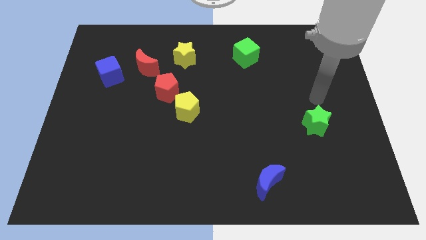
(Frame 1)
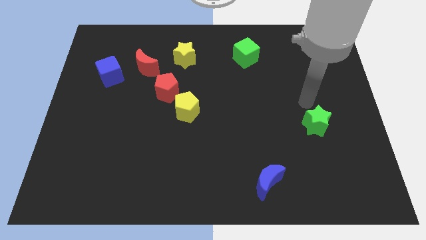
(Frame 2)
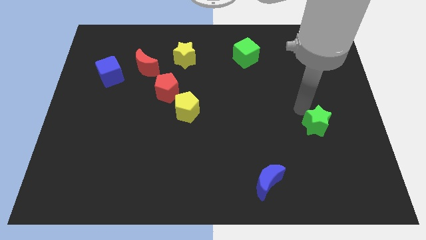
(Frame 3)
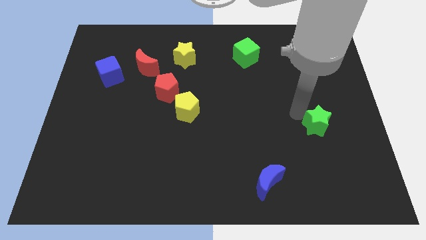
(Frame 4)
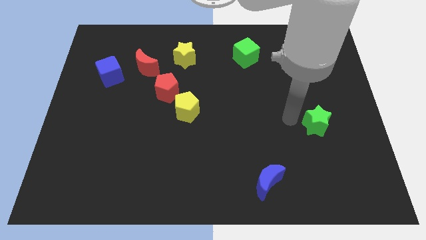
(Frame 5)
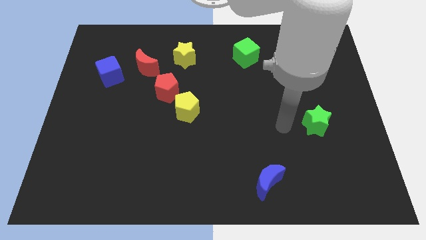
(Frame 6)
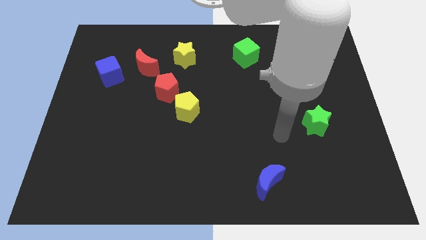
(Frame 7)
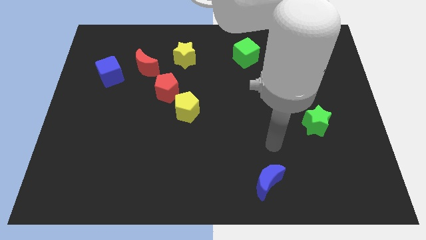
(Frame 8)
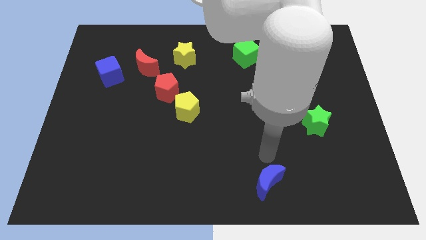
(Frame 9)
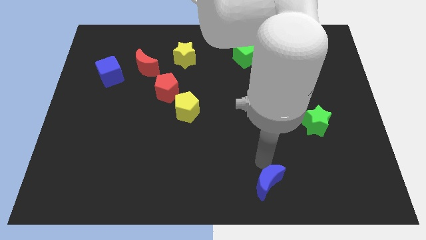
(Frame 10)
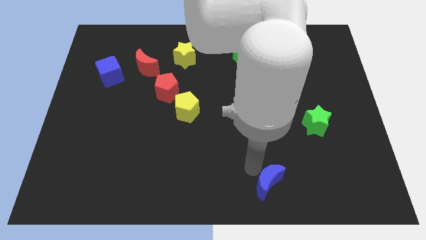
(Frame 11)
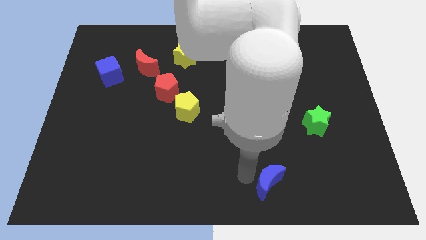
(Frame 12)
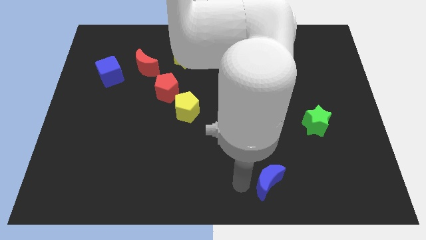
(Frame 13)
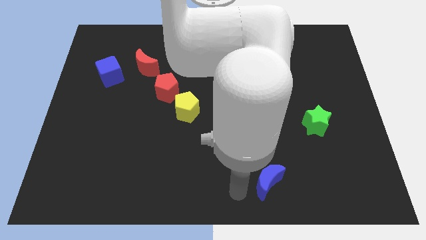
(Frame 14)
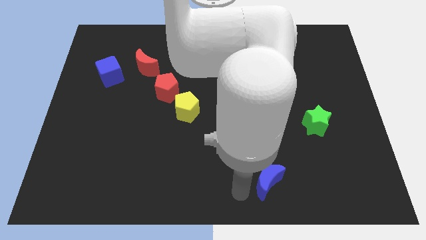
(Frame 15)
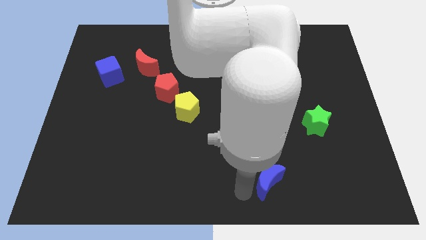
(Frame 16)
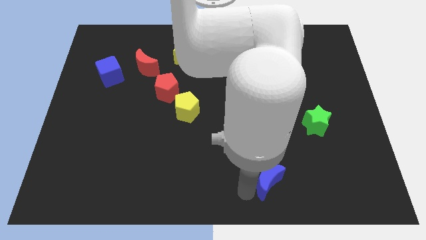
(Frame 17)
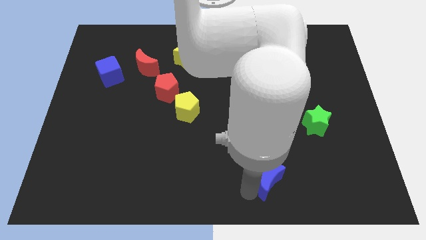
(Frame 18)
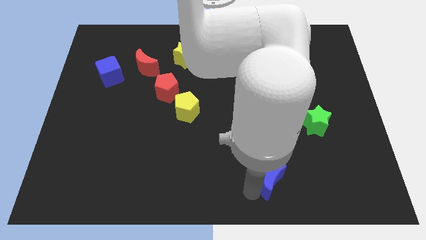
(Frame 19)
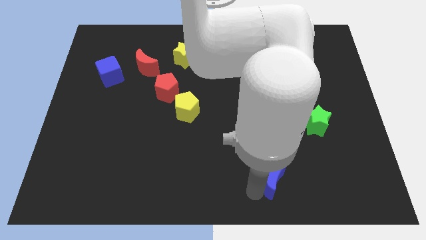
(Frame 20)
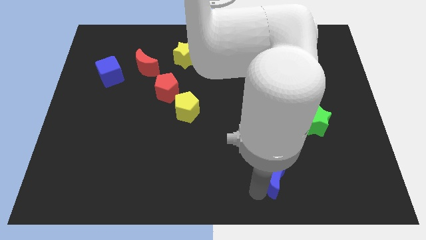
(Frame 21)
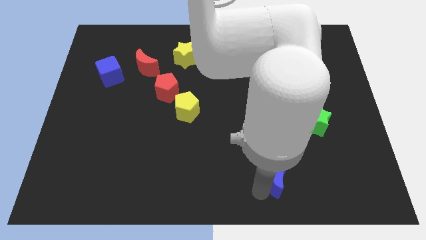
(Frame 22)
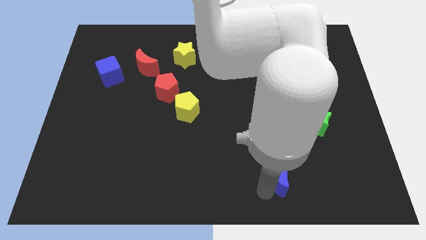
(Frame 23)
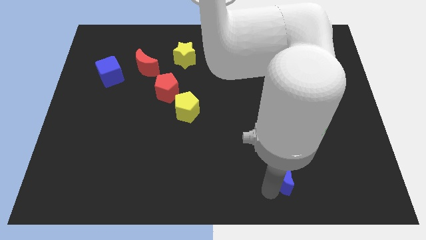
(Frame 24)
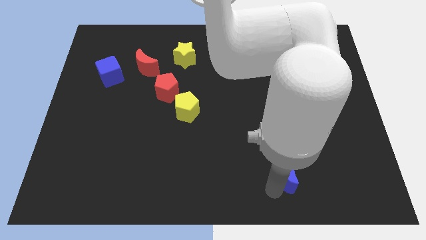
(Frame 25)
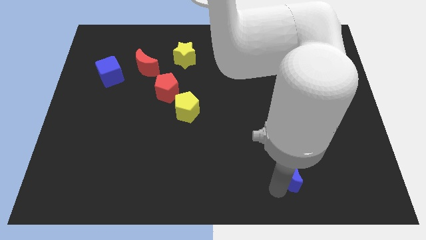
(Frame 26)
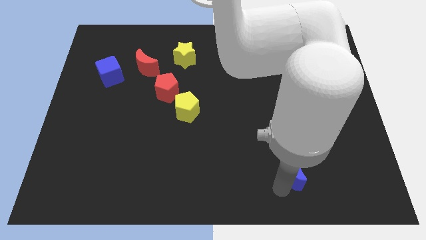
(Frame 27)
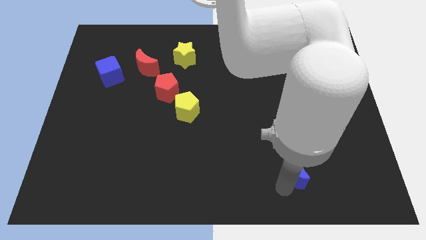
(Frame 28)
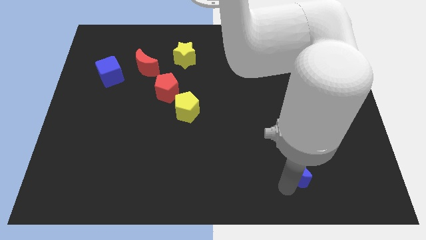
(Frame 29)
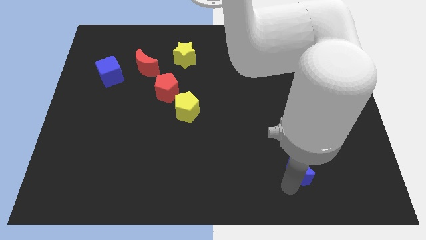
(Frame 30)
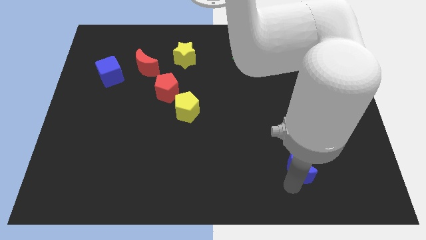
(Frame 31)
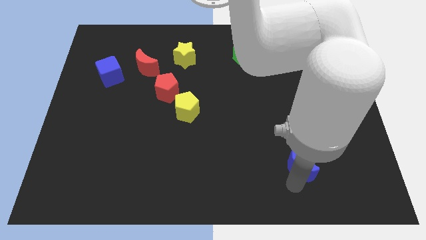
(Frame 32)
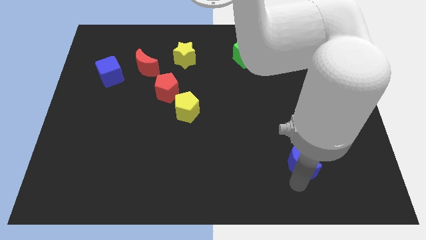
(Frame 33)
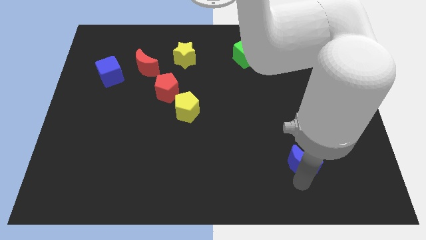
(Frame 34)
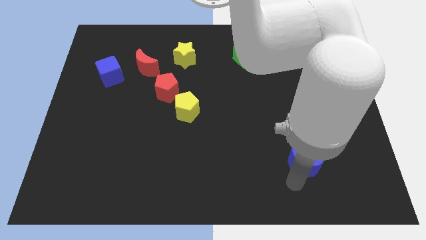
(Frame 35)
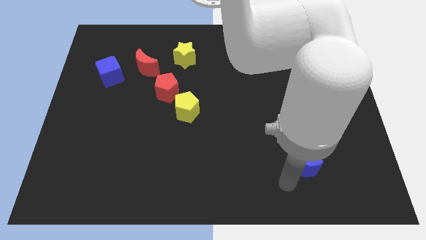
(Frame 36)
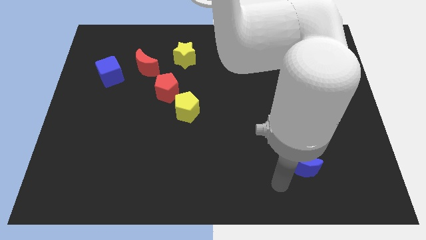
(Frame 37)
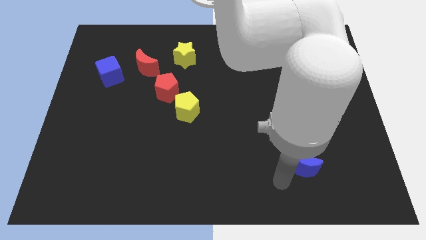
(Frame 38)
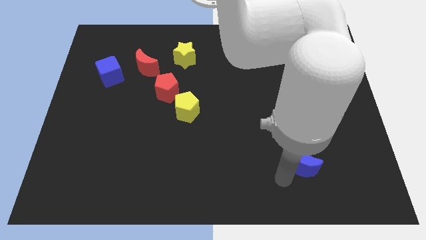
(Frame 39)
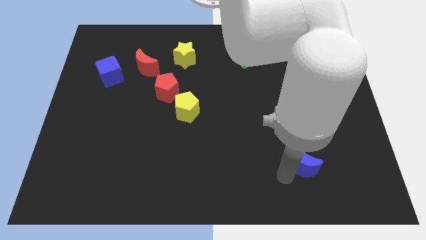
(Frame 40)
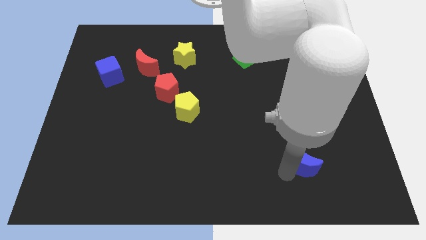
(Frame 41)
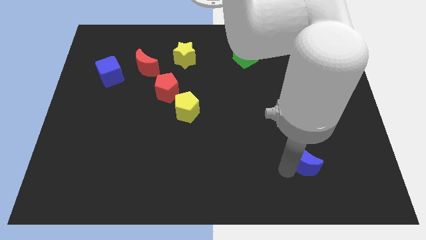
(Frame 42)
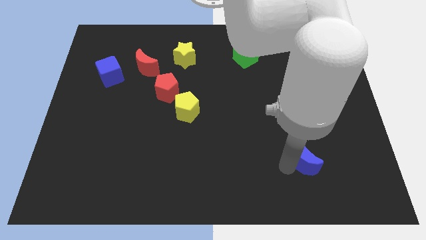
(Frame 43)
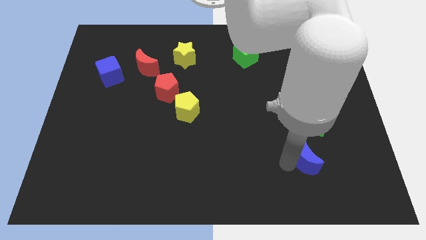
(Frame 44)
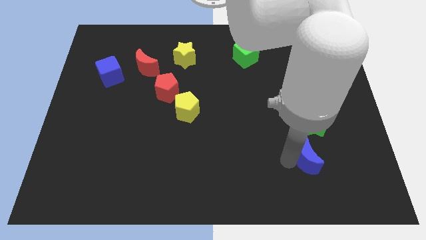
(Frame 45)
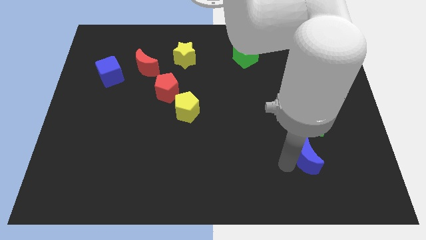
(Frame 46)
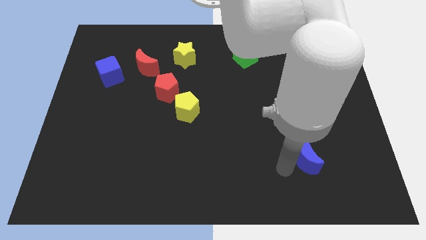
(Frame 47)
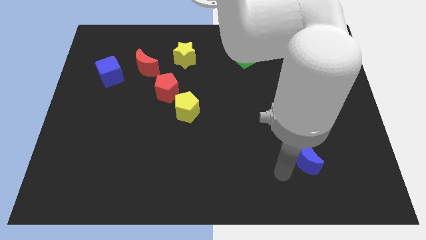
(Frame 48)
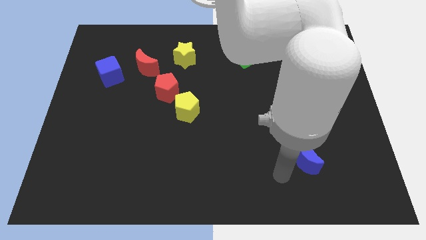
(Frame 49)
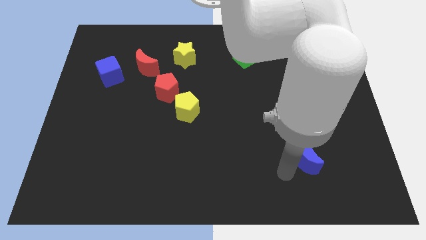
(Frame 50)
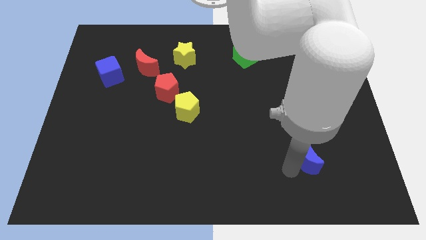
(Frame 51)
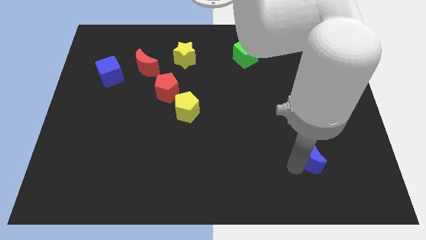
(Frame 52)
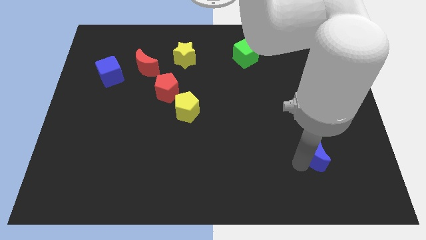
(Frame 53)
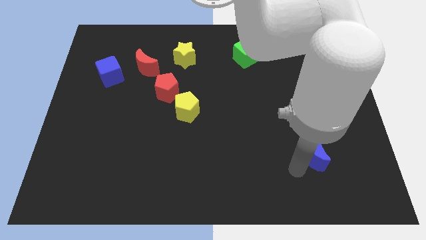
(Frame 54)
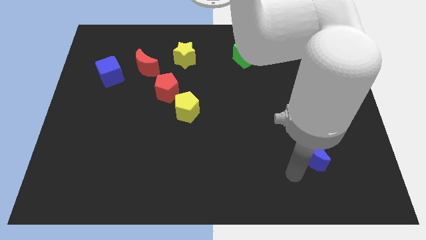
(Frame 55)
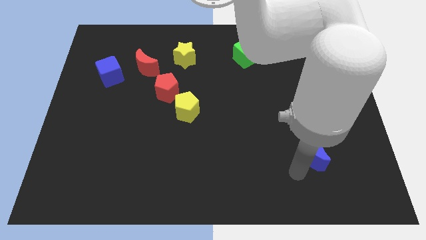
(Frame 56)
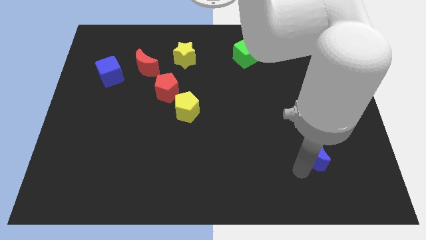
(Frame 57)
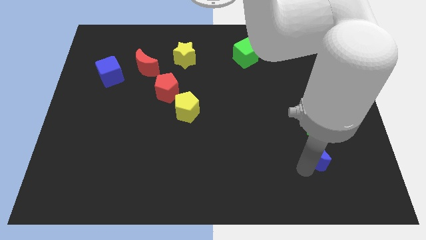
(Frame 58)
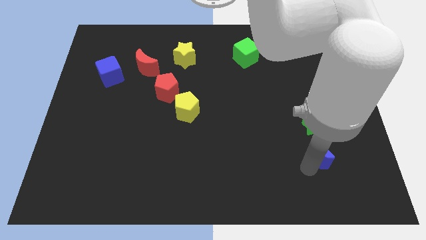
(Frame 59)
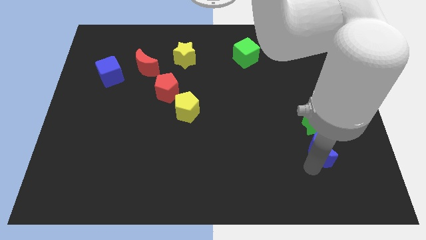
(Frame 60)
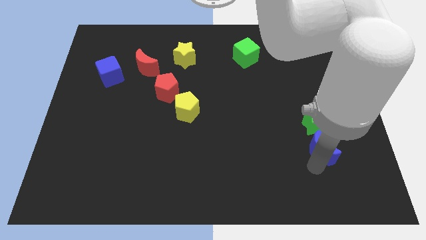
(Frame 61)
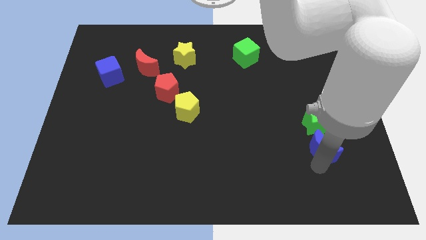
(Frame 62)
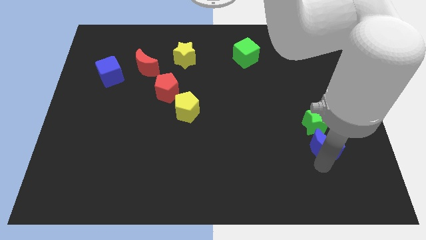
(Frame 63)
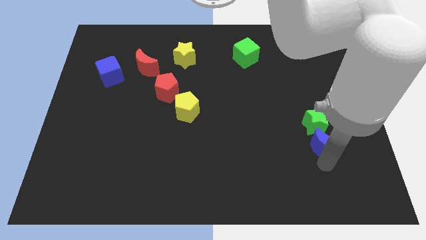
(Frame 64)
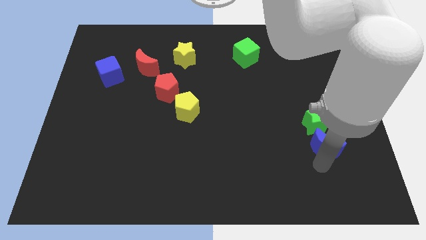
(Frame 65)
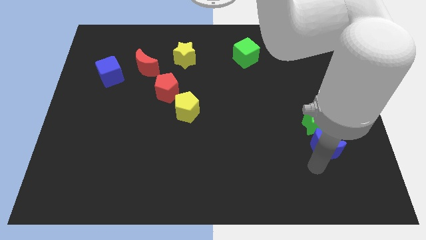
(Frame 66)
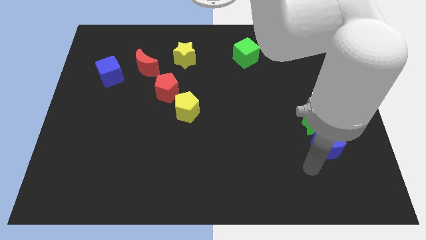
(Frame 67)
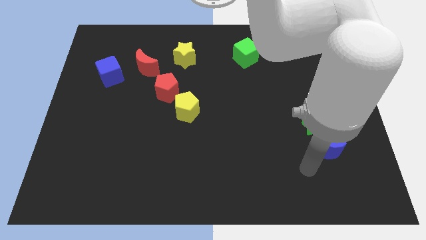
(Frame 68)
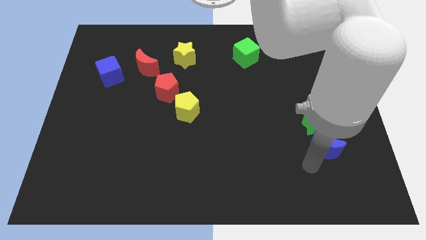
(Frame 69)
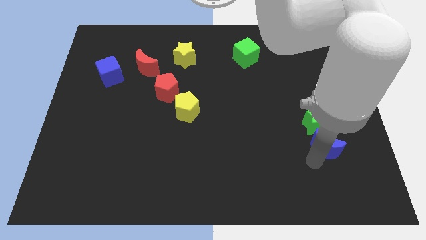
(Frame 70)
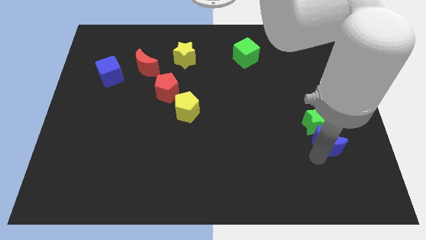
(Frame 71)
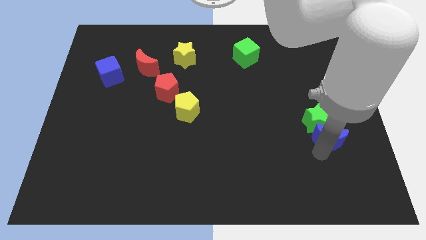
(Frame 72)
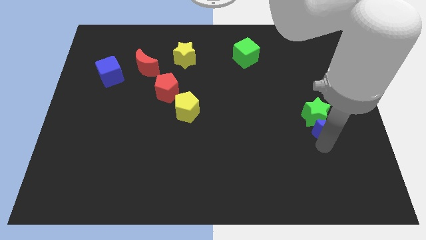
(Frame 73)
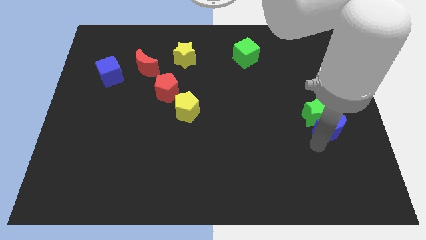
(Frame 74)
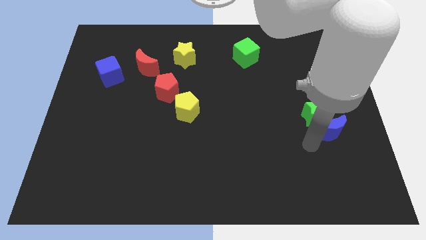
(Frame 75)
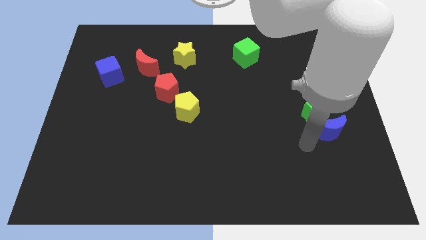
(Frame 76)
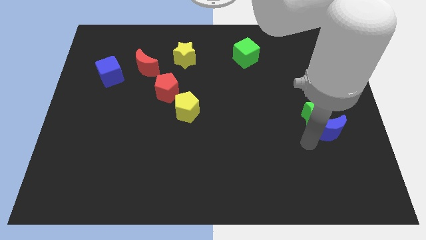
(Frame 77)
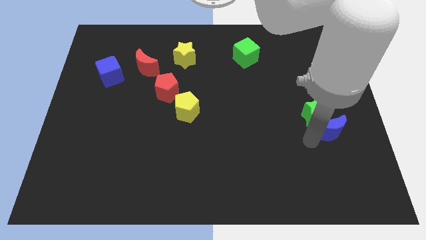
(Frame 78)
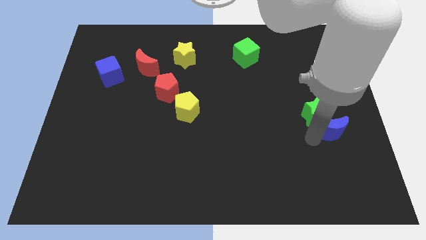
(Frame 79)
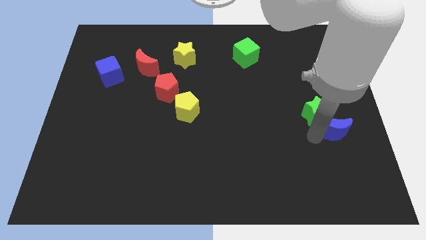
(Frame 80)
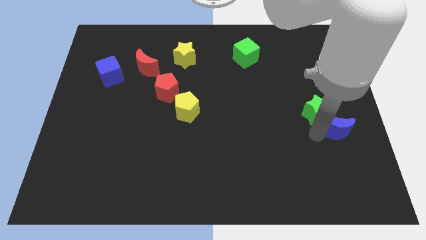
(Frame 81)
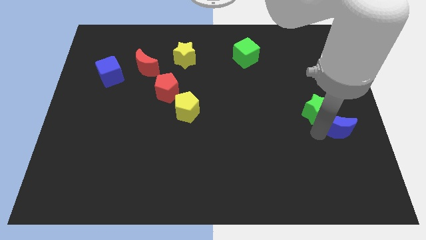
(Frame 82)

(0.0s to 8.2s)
push the blue moon to the right side of the board
